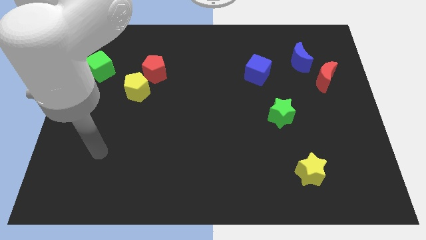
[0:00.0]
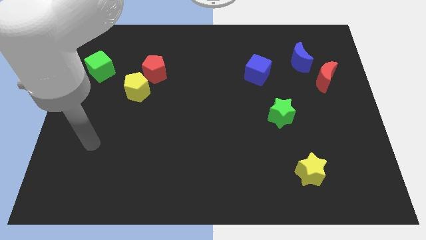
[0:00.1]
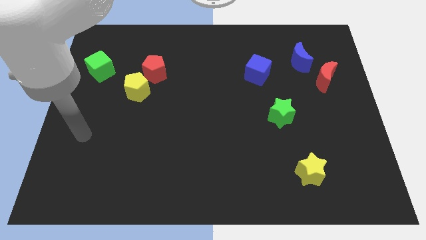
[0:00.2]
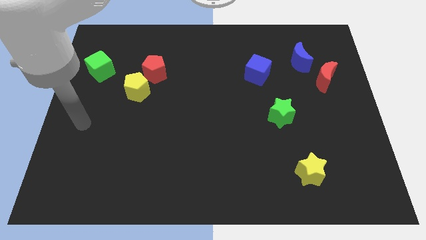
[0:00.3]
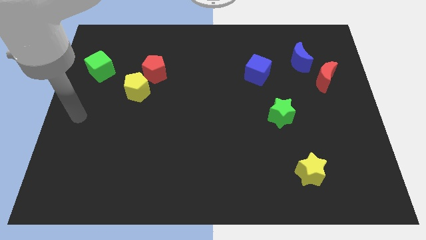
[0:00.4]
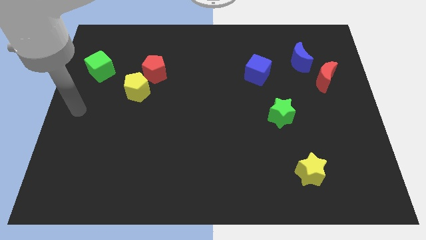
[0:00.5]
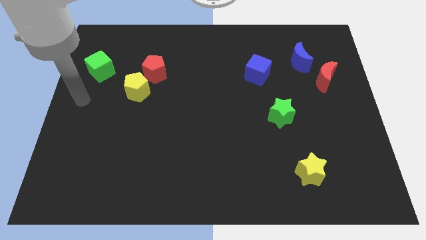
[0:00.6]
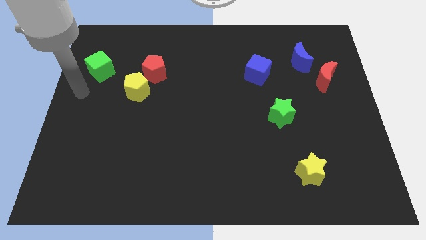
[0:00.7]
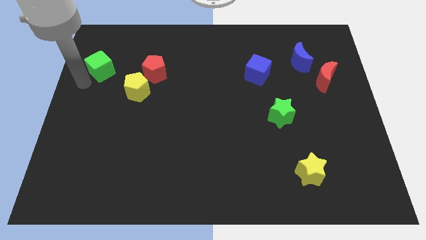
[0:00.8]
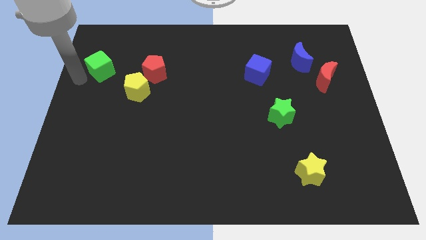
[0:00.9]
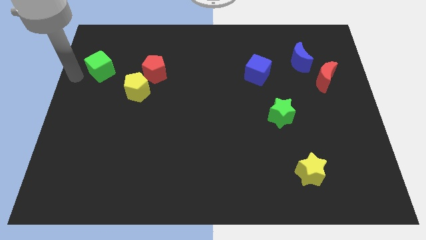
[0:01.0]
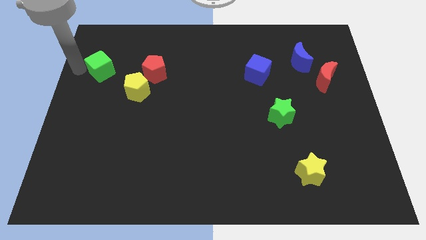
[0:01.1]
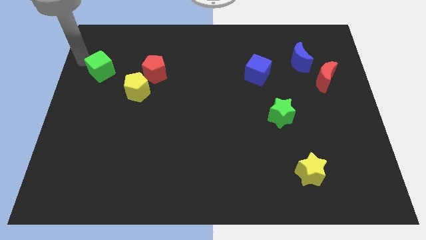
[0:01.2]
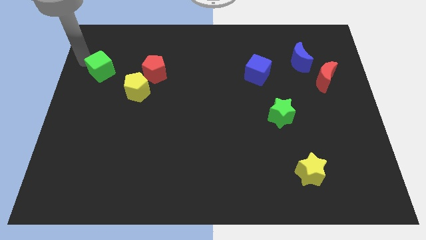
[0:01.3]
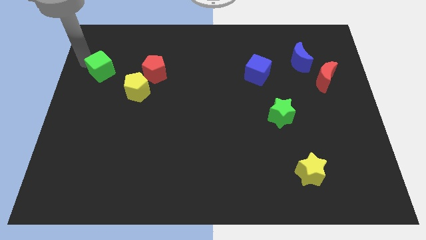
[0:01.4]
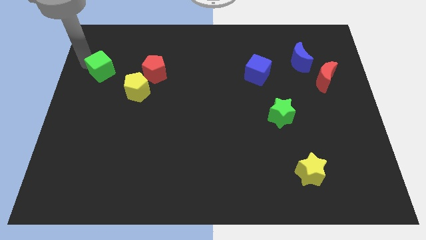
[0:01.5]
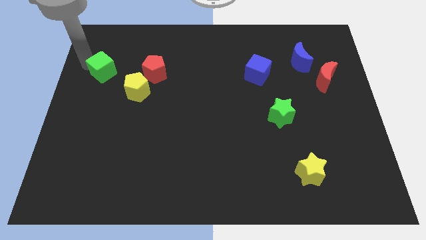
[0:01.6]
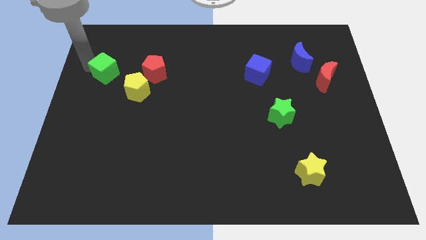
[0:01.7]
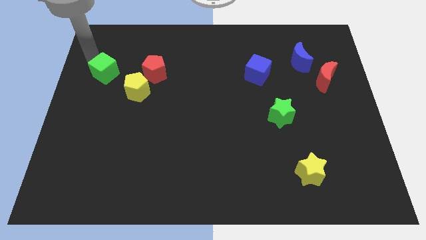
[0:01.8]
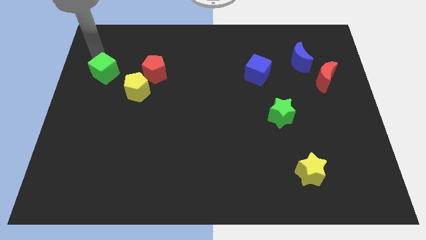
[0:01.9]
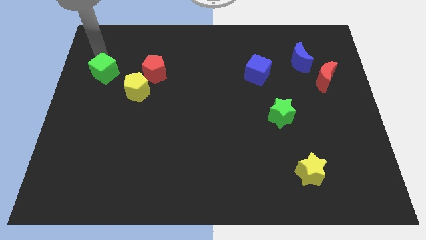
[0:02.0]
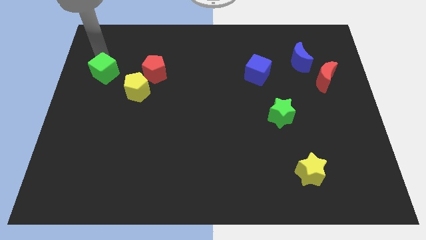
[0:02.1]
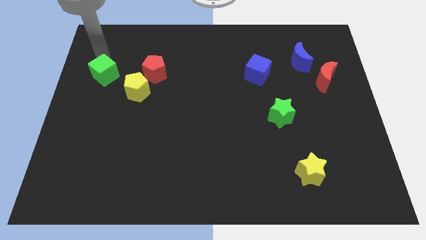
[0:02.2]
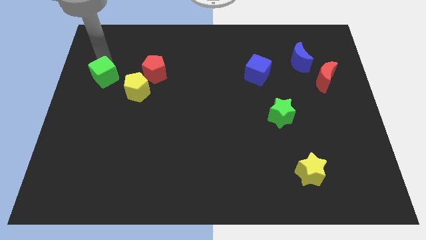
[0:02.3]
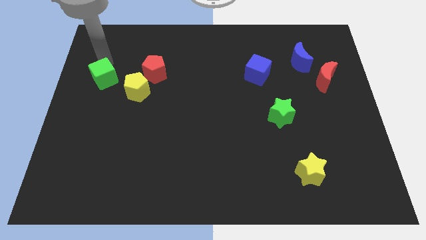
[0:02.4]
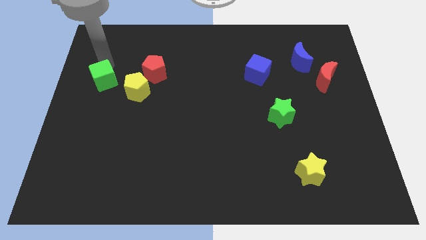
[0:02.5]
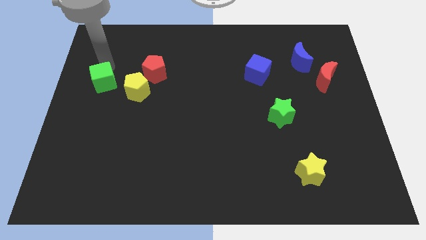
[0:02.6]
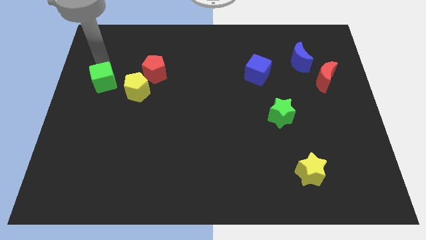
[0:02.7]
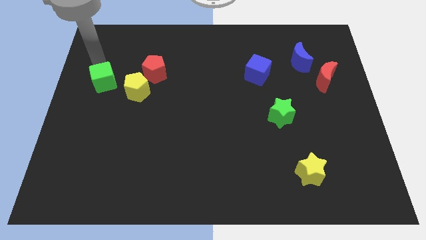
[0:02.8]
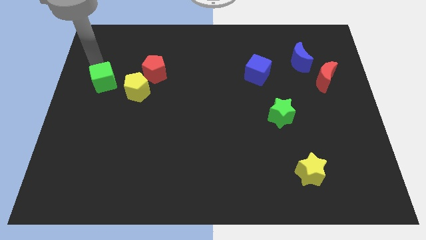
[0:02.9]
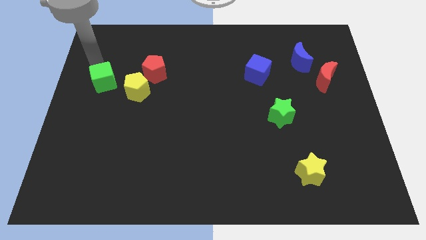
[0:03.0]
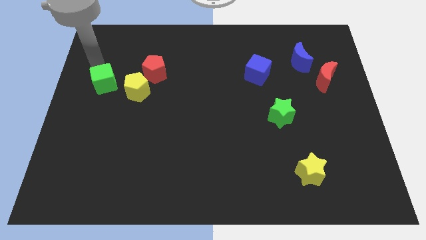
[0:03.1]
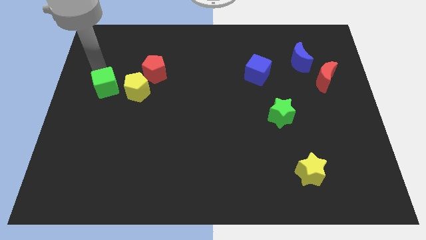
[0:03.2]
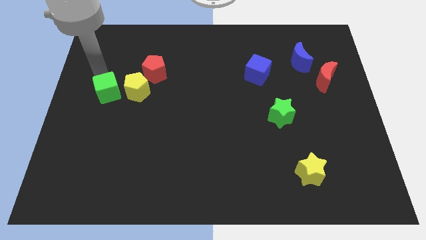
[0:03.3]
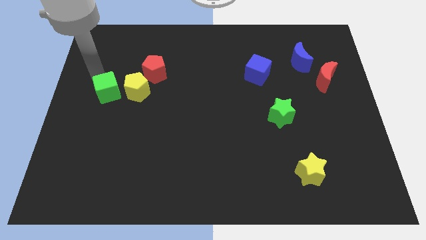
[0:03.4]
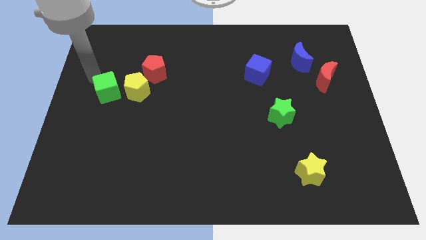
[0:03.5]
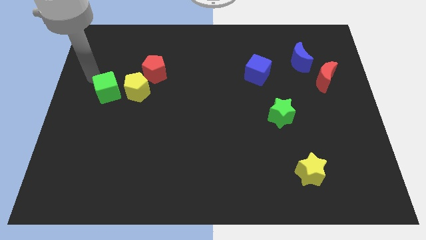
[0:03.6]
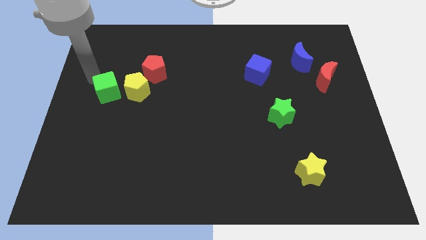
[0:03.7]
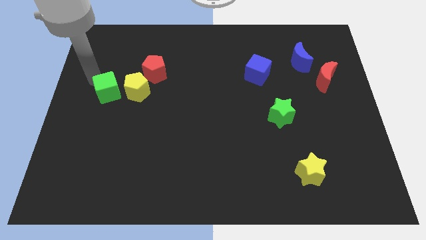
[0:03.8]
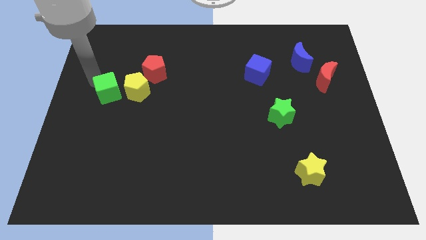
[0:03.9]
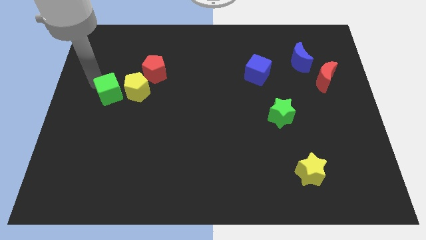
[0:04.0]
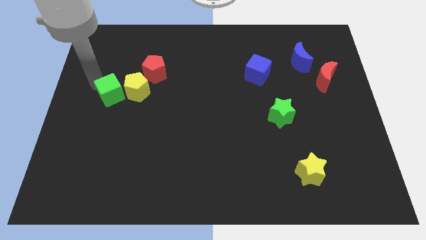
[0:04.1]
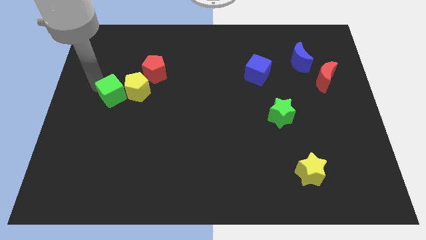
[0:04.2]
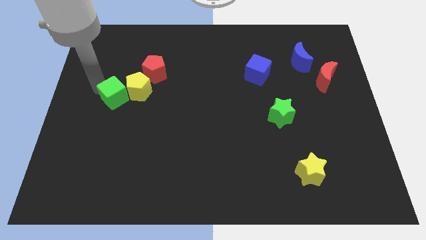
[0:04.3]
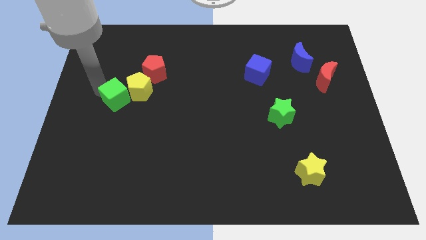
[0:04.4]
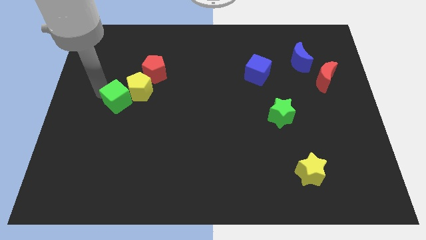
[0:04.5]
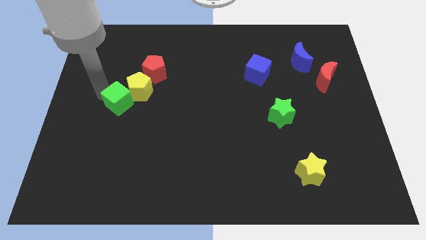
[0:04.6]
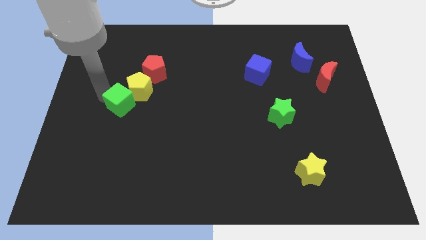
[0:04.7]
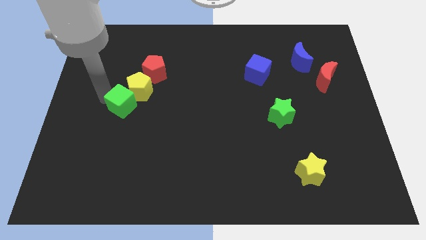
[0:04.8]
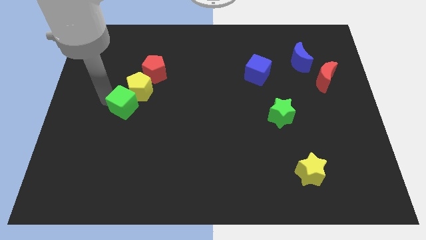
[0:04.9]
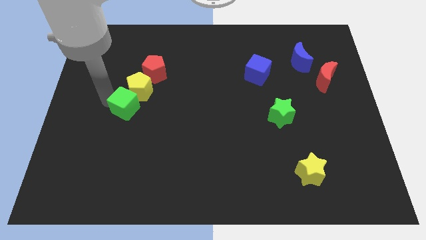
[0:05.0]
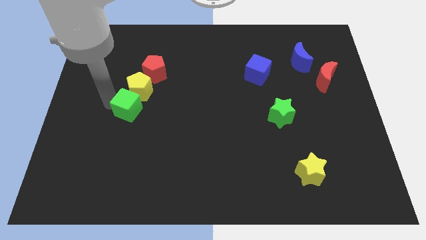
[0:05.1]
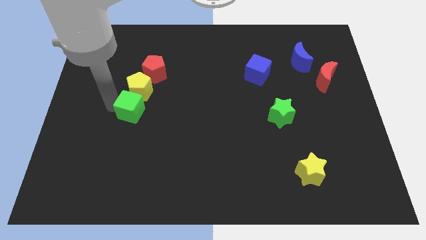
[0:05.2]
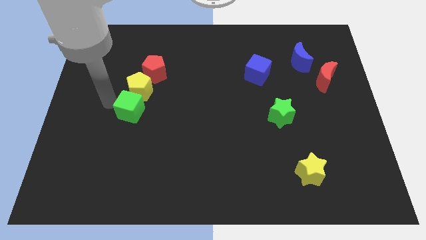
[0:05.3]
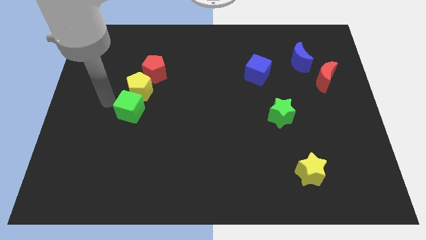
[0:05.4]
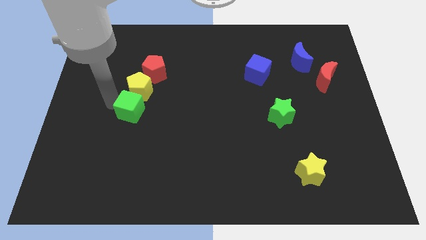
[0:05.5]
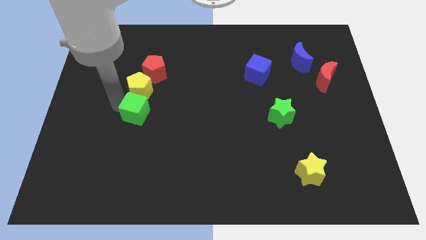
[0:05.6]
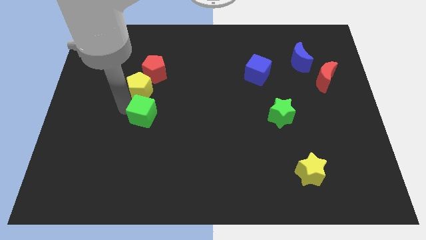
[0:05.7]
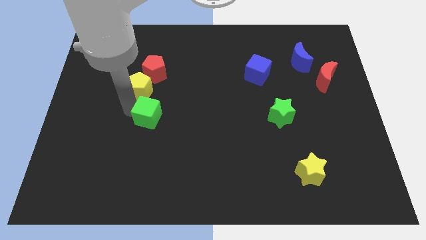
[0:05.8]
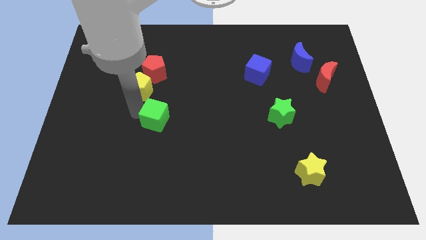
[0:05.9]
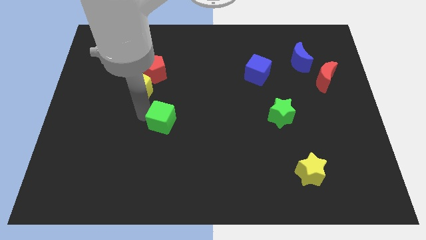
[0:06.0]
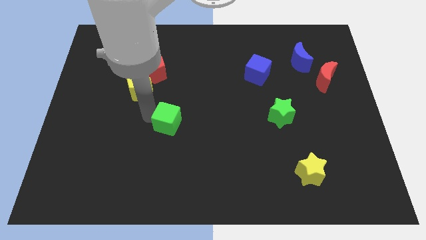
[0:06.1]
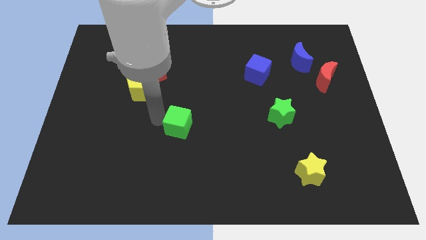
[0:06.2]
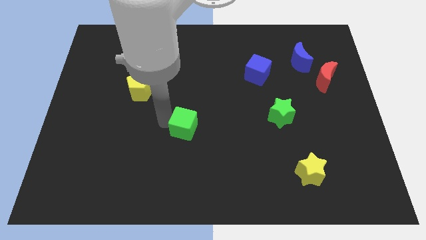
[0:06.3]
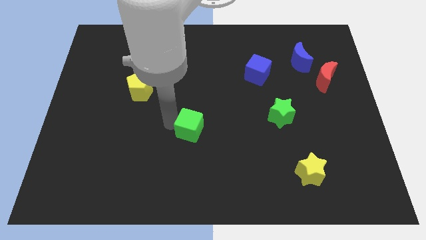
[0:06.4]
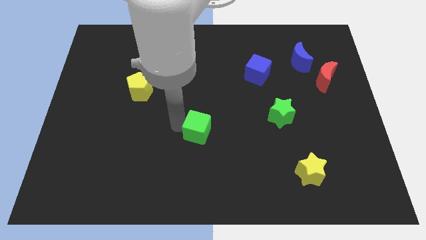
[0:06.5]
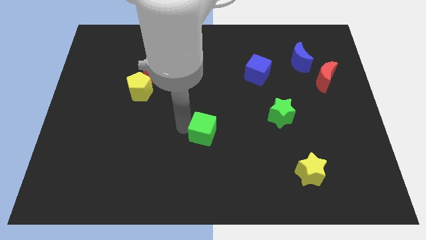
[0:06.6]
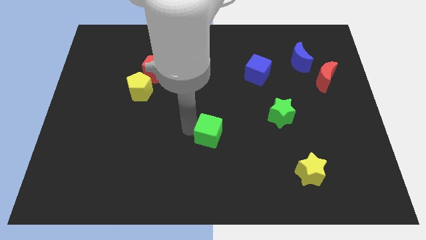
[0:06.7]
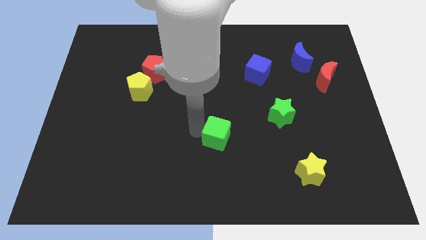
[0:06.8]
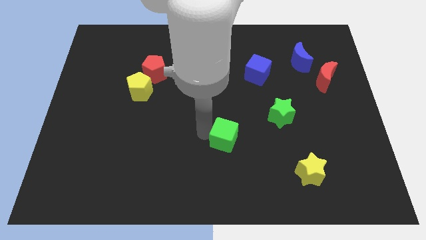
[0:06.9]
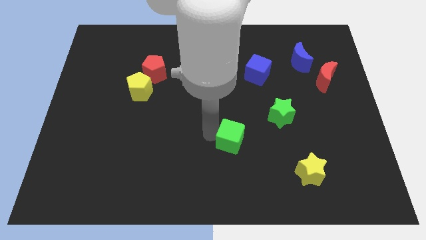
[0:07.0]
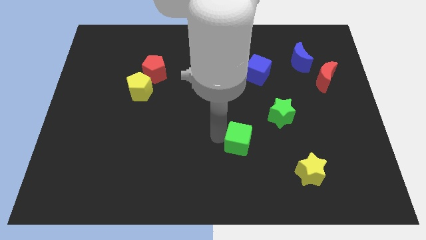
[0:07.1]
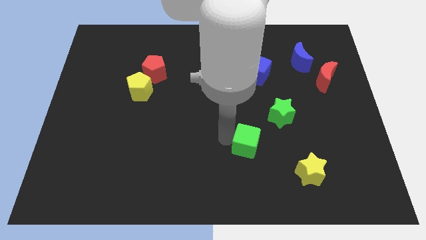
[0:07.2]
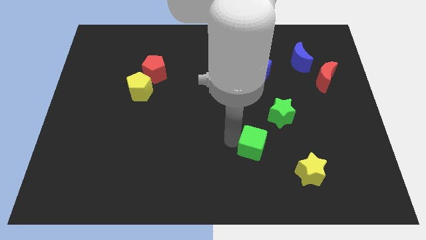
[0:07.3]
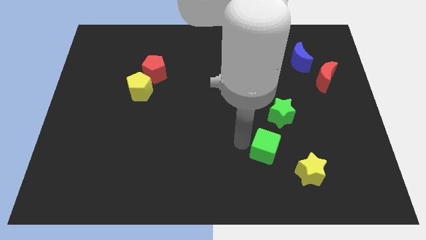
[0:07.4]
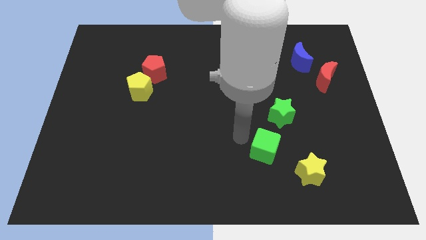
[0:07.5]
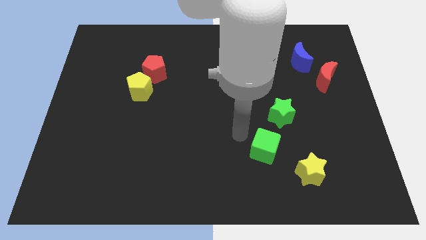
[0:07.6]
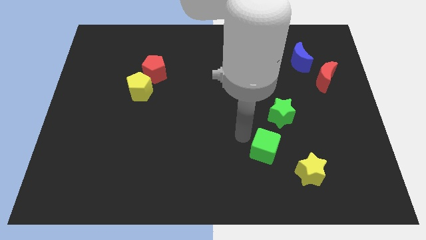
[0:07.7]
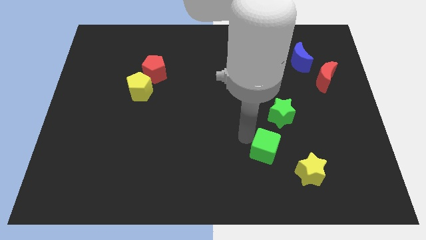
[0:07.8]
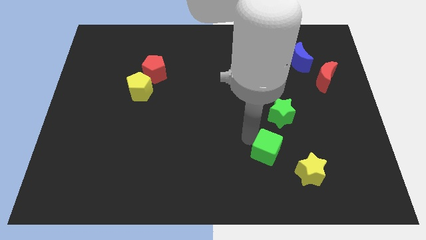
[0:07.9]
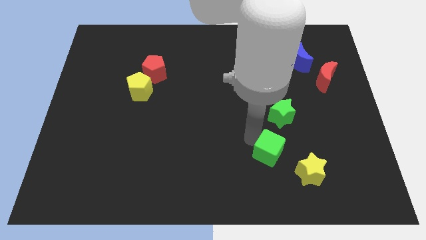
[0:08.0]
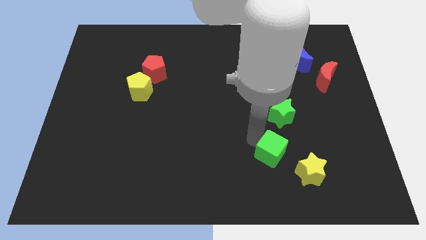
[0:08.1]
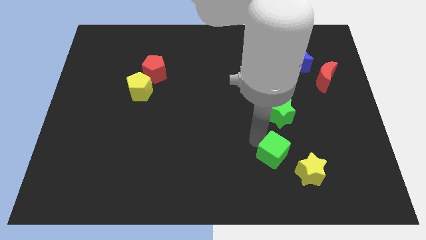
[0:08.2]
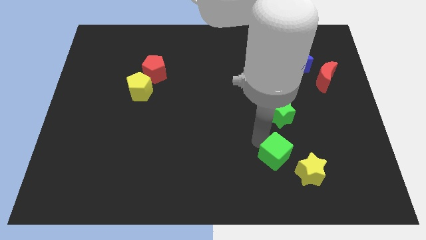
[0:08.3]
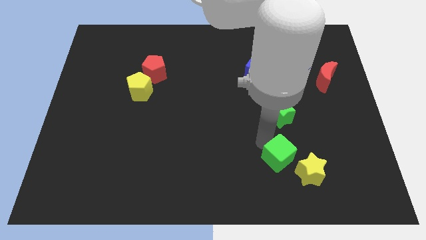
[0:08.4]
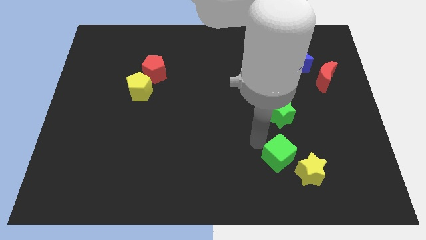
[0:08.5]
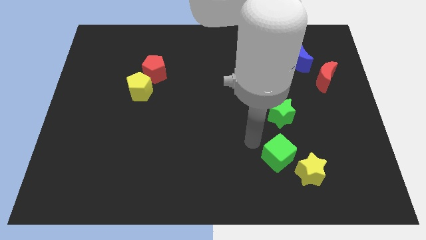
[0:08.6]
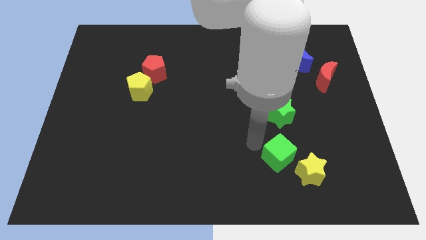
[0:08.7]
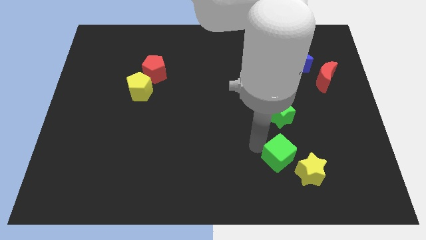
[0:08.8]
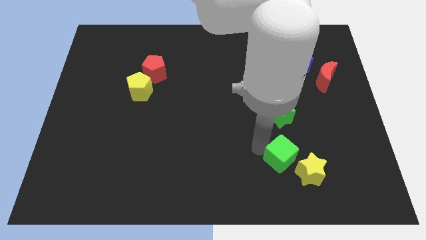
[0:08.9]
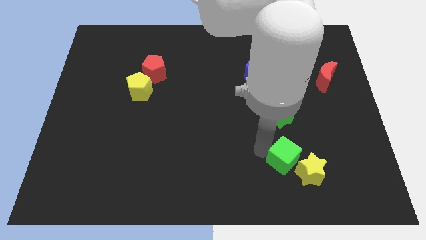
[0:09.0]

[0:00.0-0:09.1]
slide the green cube next to the yellow star
